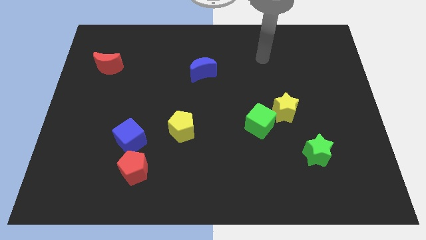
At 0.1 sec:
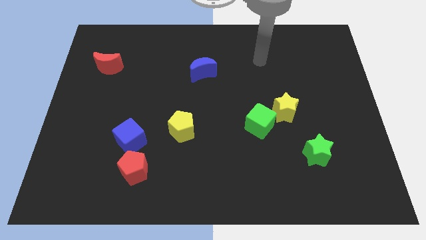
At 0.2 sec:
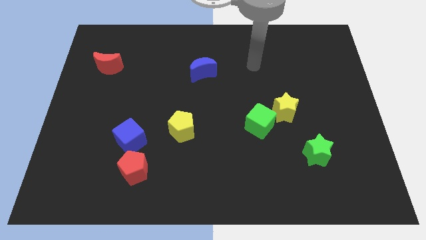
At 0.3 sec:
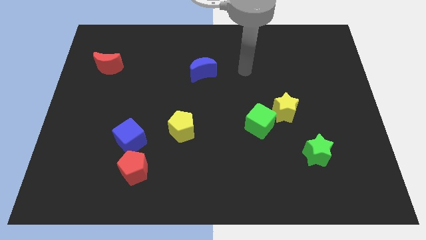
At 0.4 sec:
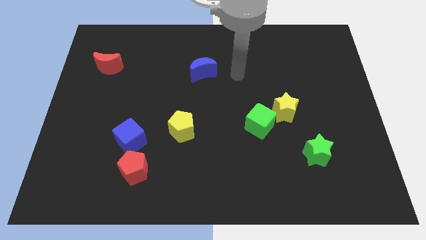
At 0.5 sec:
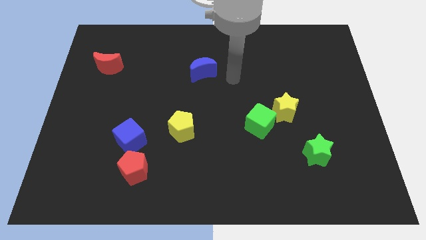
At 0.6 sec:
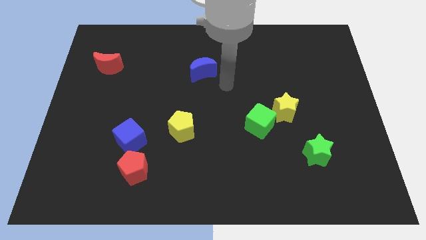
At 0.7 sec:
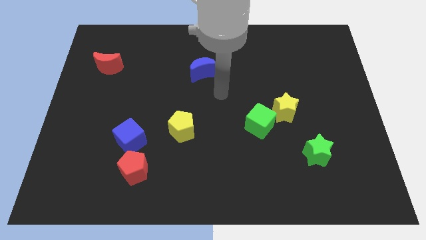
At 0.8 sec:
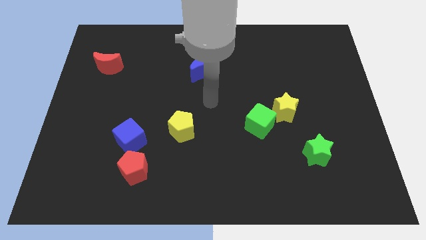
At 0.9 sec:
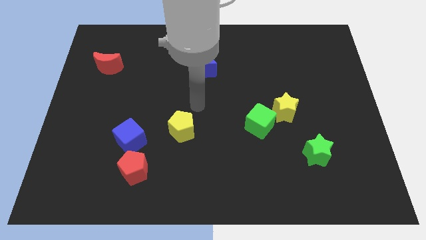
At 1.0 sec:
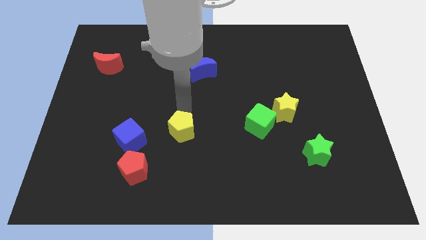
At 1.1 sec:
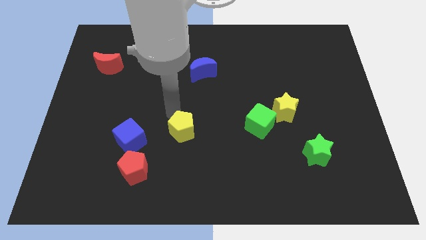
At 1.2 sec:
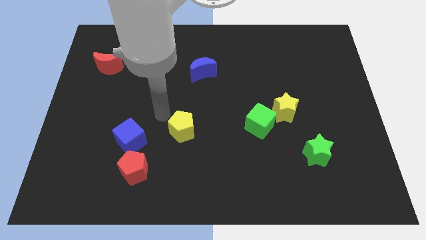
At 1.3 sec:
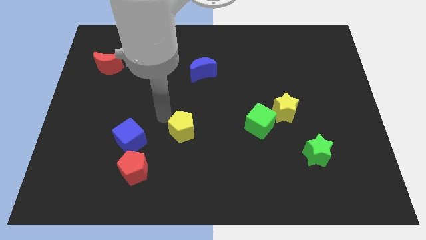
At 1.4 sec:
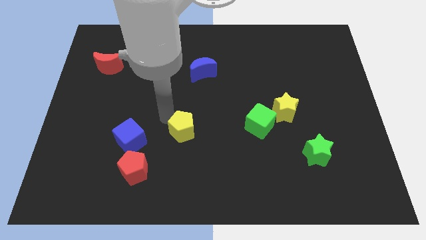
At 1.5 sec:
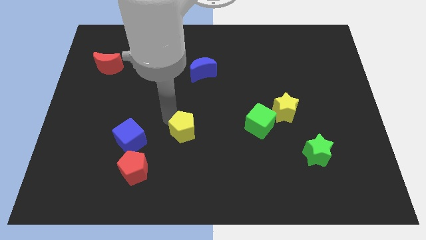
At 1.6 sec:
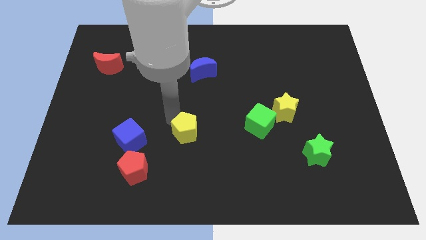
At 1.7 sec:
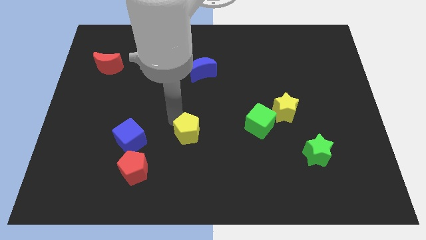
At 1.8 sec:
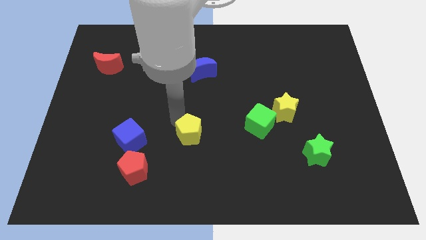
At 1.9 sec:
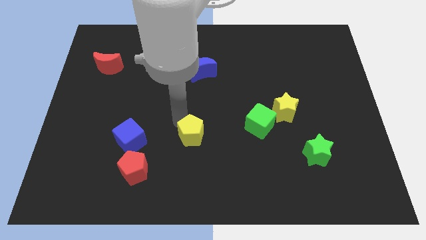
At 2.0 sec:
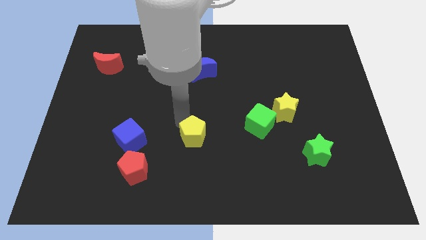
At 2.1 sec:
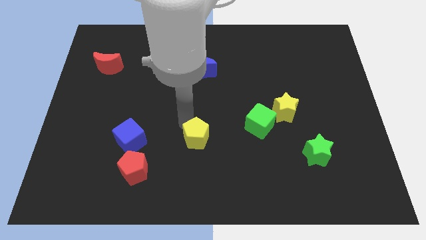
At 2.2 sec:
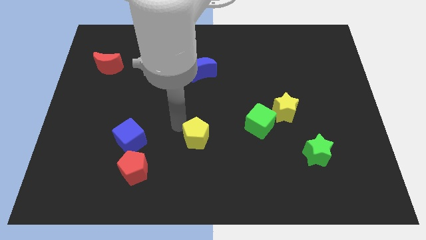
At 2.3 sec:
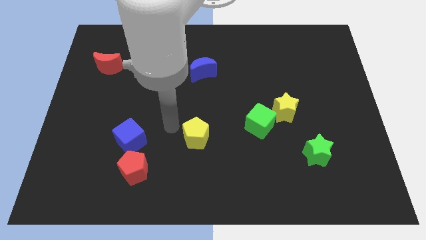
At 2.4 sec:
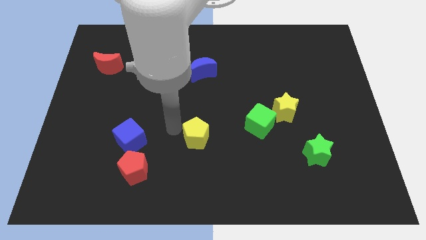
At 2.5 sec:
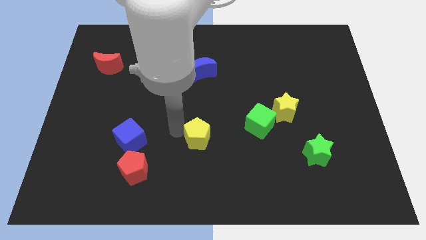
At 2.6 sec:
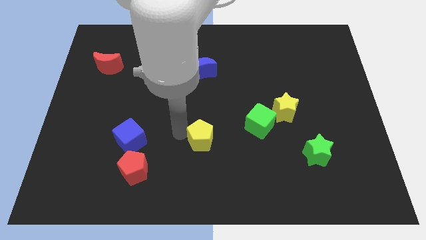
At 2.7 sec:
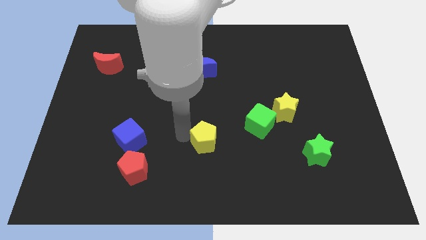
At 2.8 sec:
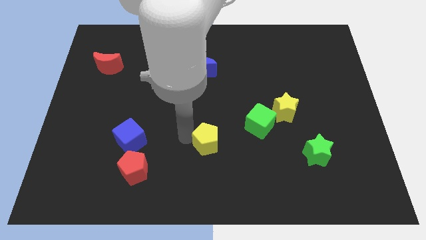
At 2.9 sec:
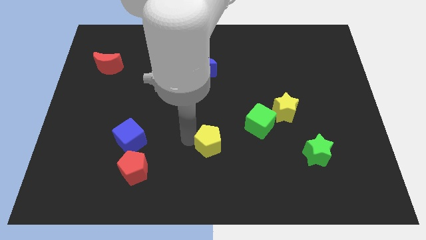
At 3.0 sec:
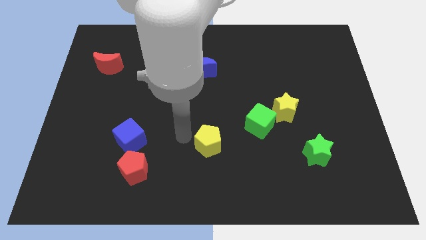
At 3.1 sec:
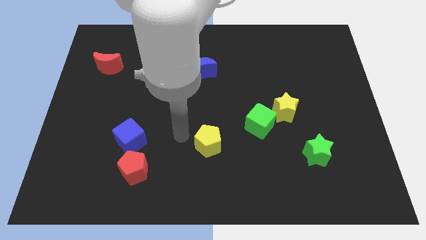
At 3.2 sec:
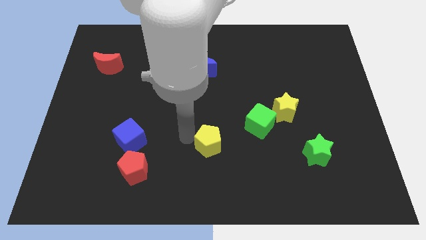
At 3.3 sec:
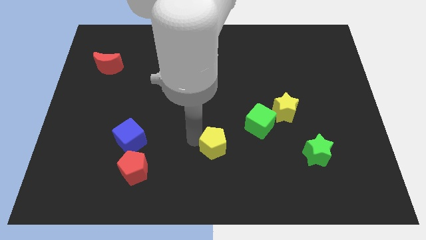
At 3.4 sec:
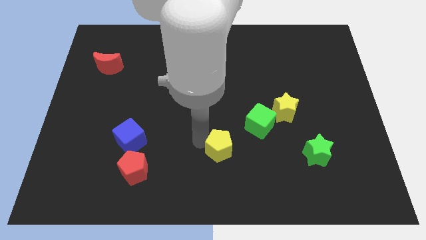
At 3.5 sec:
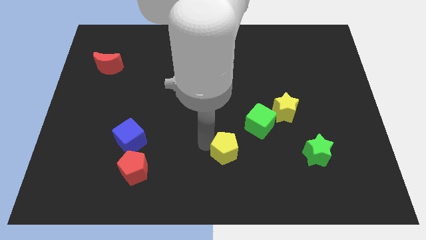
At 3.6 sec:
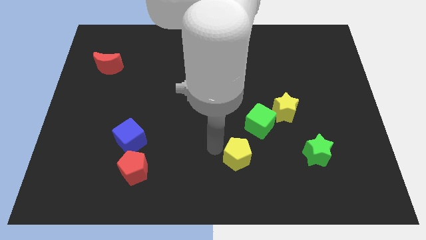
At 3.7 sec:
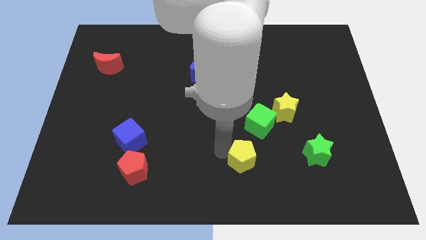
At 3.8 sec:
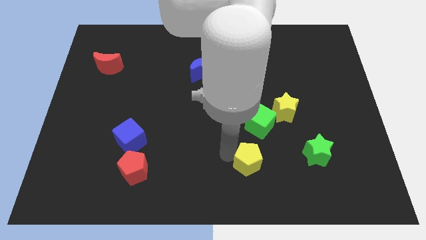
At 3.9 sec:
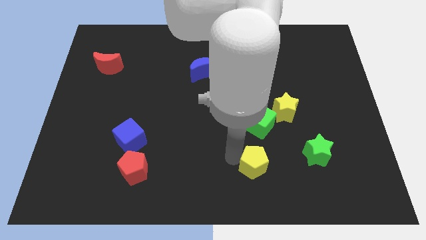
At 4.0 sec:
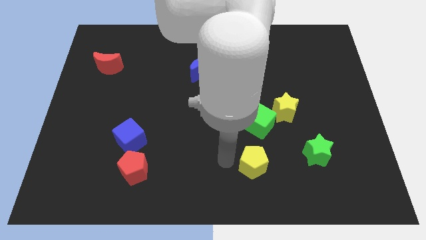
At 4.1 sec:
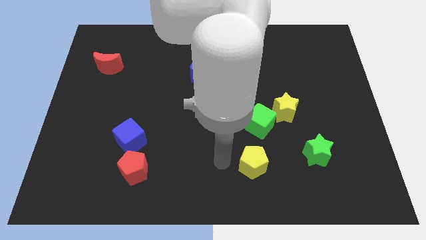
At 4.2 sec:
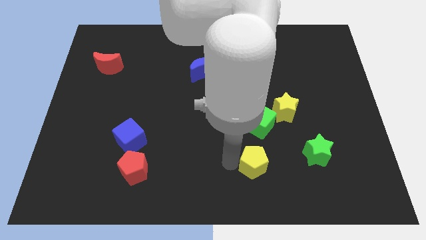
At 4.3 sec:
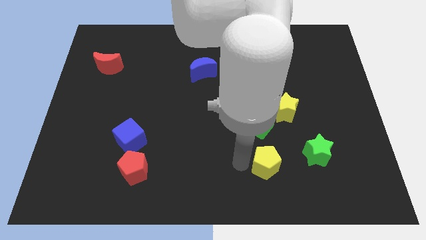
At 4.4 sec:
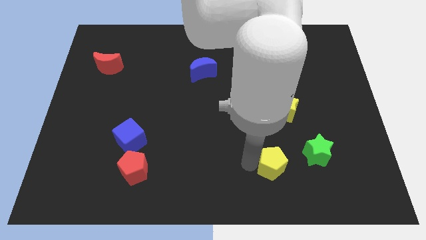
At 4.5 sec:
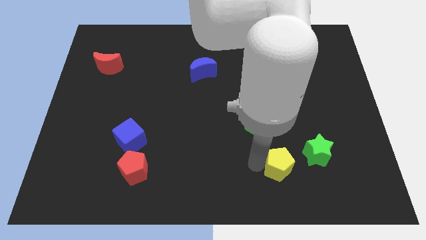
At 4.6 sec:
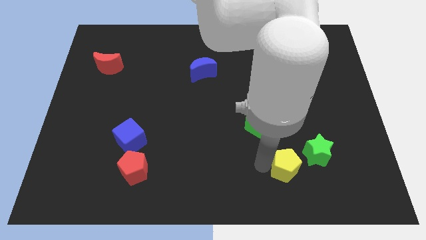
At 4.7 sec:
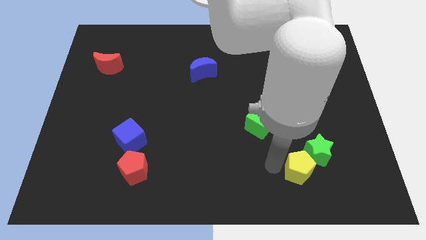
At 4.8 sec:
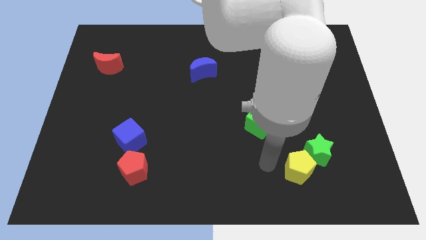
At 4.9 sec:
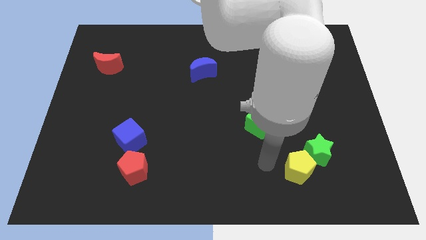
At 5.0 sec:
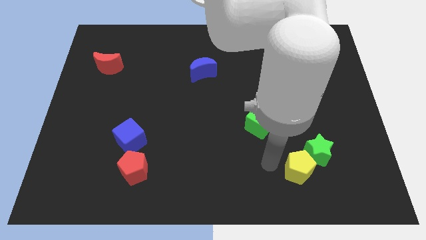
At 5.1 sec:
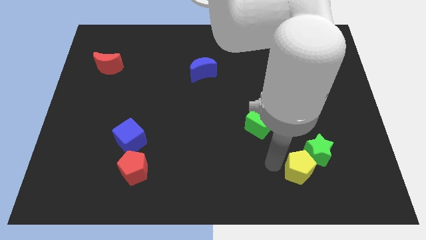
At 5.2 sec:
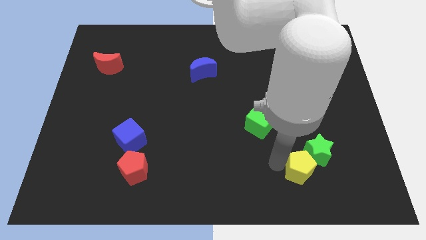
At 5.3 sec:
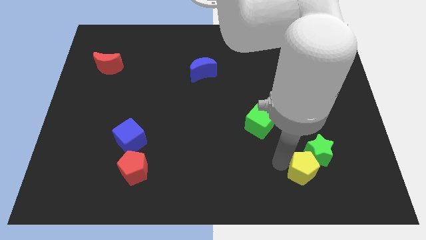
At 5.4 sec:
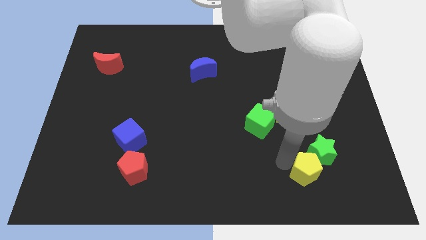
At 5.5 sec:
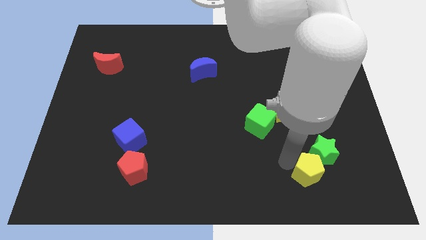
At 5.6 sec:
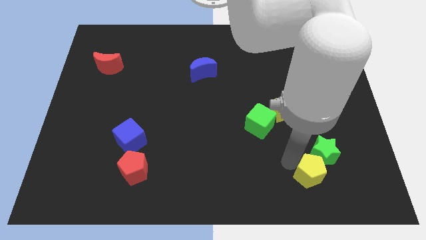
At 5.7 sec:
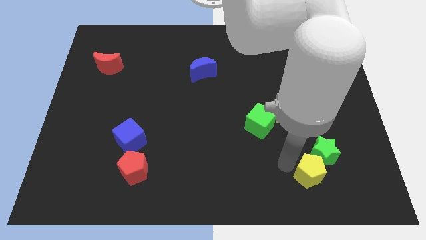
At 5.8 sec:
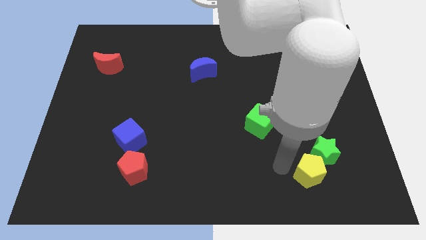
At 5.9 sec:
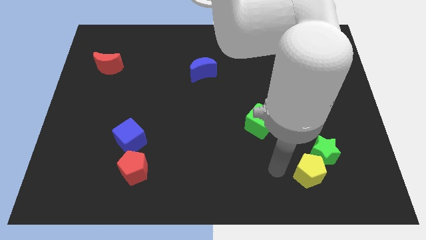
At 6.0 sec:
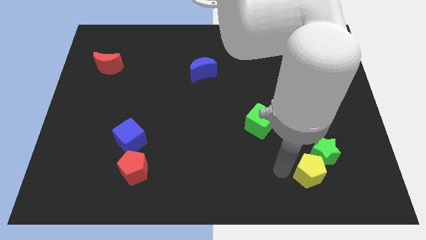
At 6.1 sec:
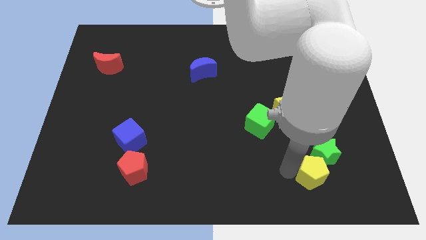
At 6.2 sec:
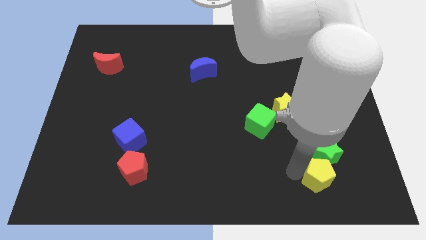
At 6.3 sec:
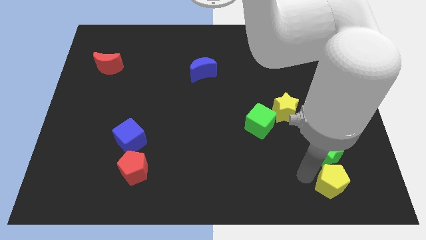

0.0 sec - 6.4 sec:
push the yellow pentagon diagonally down and to the right of the green star

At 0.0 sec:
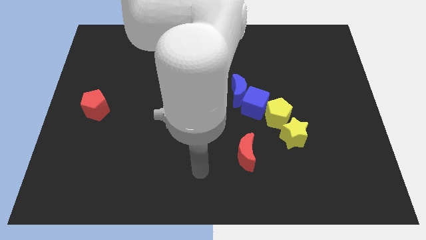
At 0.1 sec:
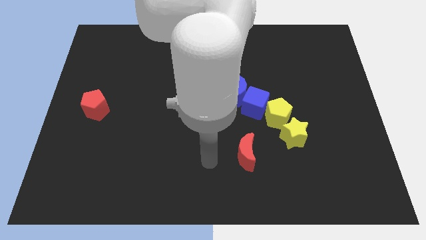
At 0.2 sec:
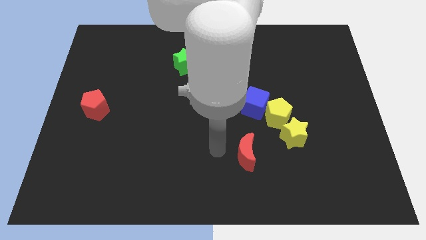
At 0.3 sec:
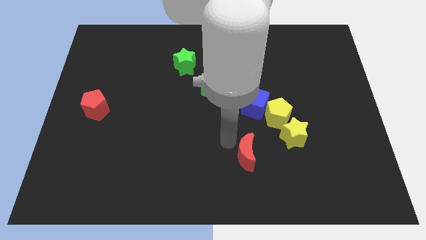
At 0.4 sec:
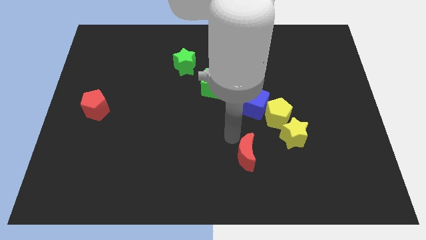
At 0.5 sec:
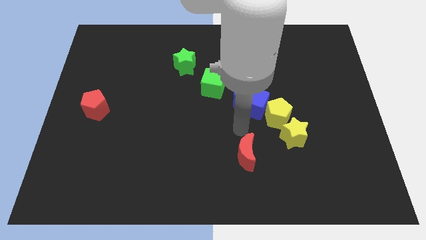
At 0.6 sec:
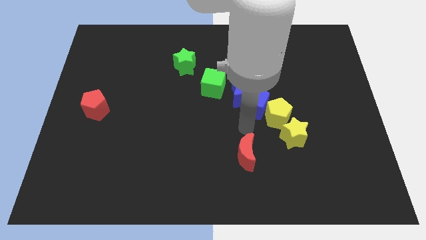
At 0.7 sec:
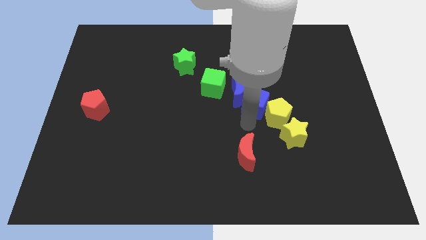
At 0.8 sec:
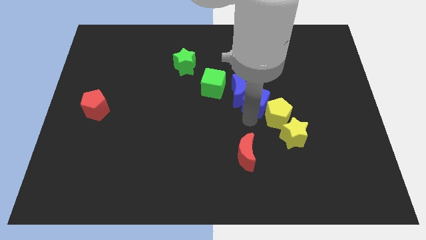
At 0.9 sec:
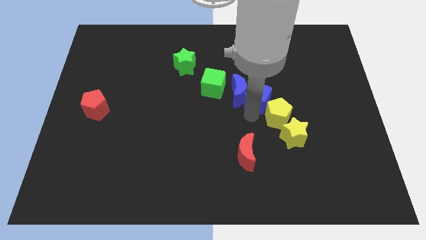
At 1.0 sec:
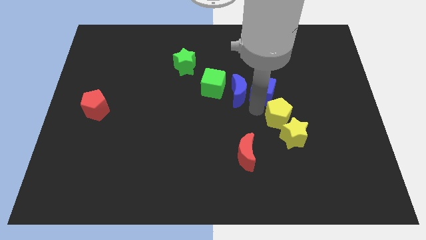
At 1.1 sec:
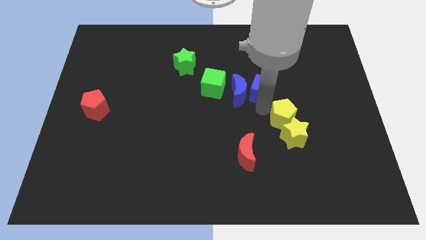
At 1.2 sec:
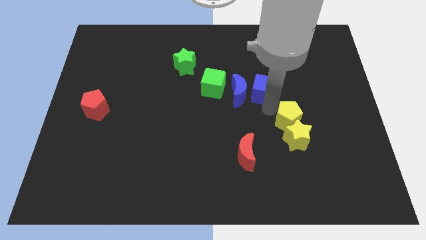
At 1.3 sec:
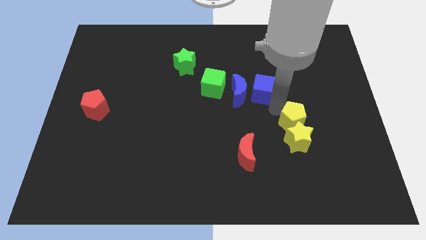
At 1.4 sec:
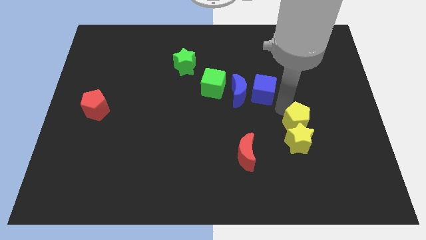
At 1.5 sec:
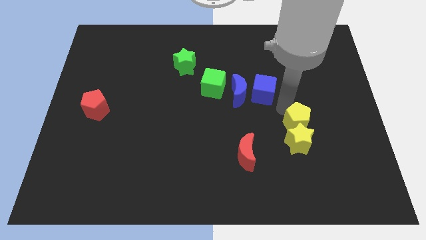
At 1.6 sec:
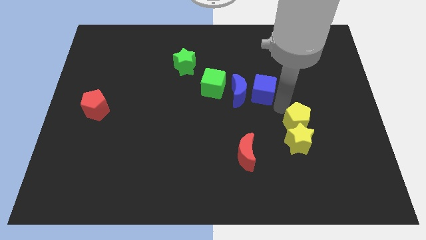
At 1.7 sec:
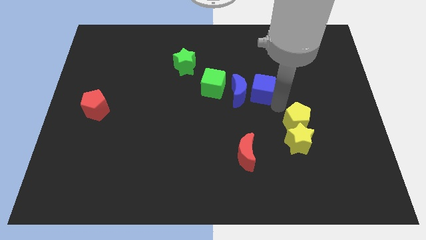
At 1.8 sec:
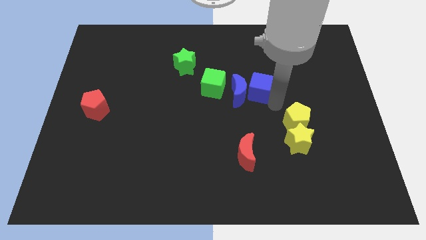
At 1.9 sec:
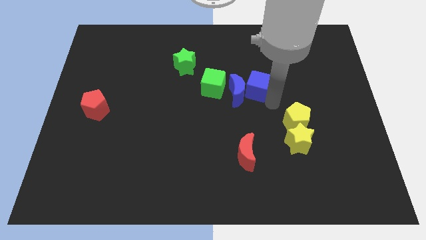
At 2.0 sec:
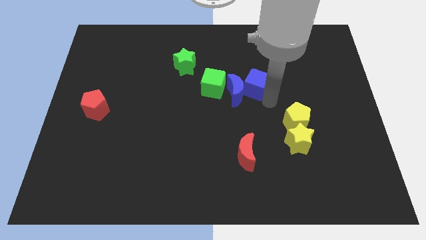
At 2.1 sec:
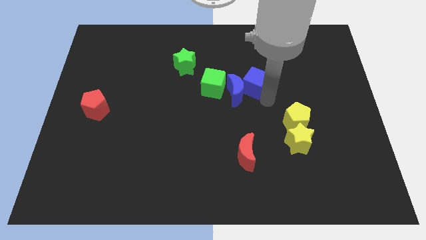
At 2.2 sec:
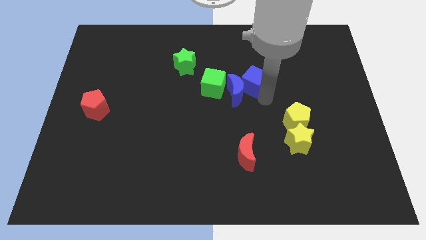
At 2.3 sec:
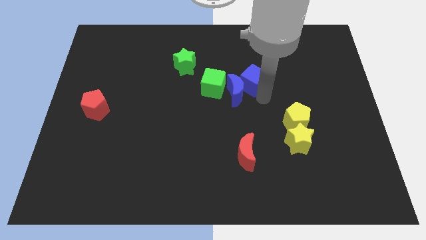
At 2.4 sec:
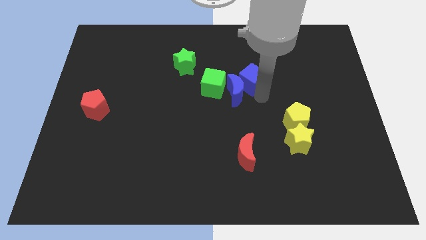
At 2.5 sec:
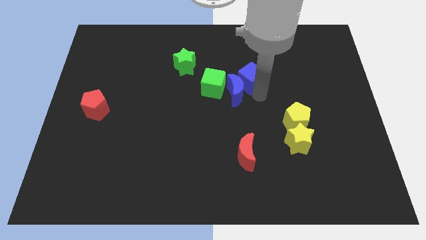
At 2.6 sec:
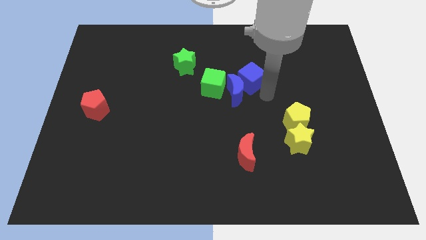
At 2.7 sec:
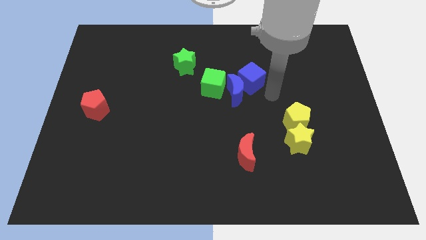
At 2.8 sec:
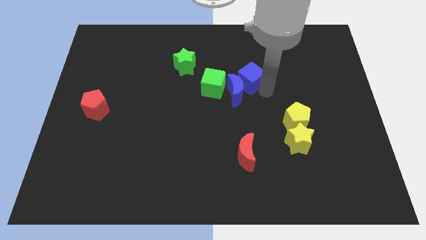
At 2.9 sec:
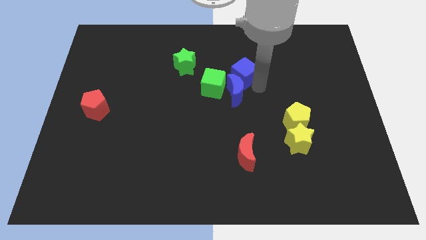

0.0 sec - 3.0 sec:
push the blue cube to the right side of the green star
